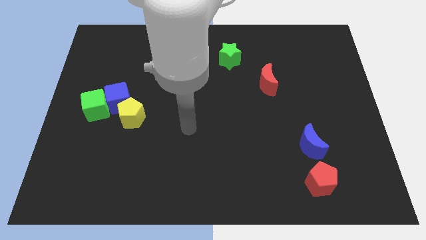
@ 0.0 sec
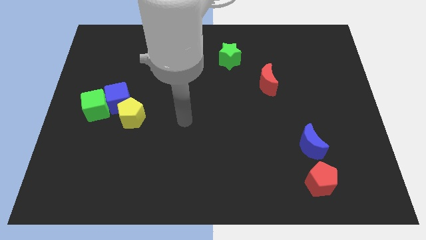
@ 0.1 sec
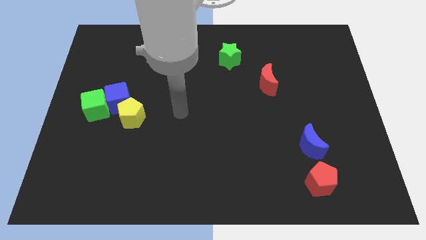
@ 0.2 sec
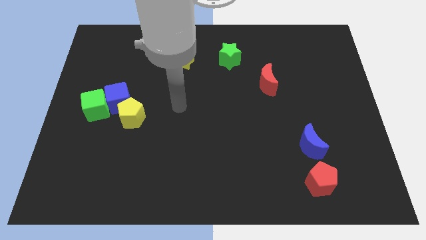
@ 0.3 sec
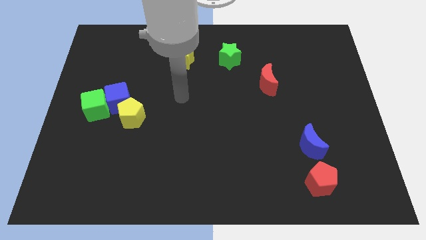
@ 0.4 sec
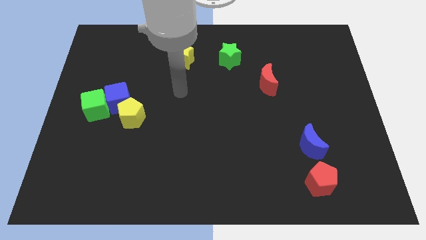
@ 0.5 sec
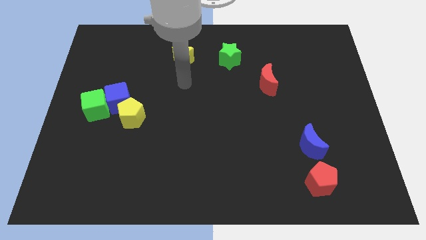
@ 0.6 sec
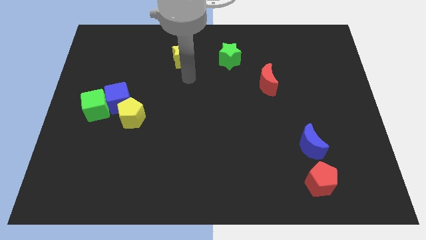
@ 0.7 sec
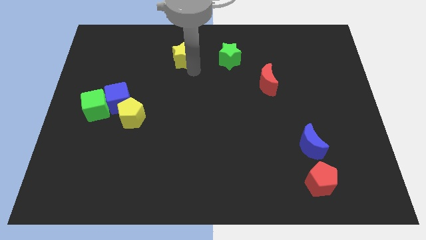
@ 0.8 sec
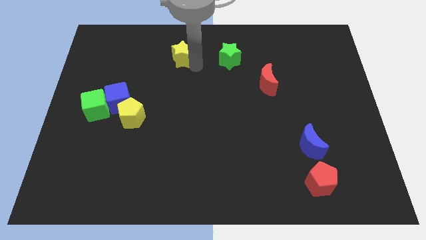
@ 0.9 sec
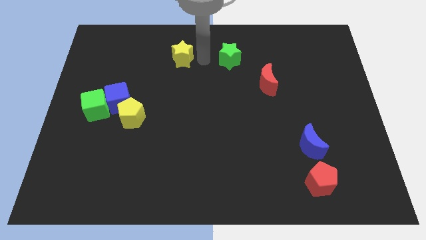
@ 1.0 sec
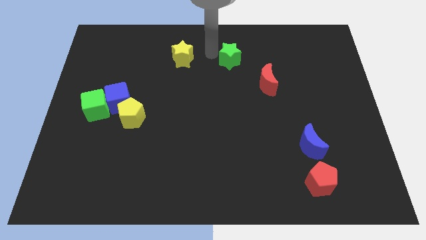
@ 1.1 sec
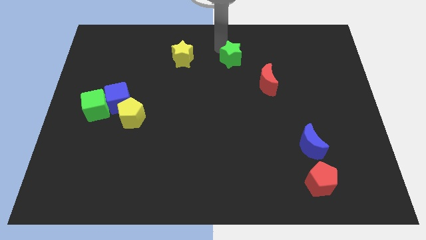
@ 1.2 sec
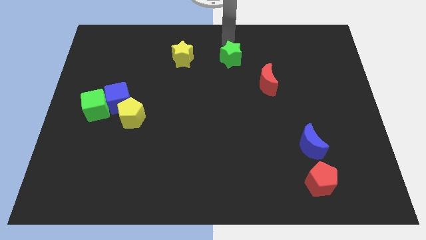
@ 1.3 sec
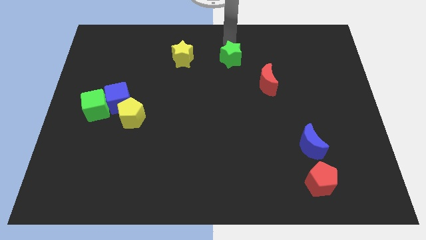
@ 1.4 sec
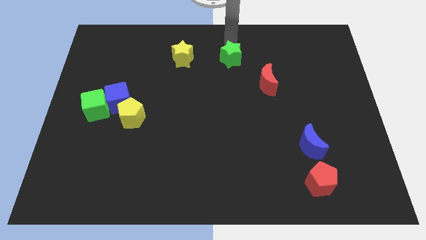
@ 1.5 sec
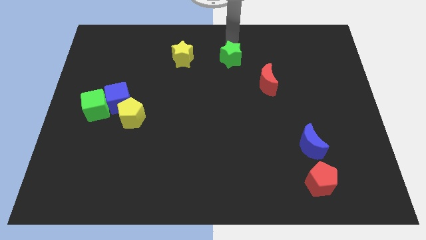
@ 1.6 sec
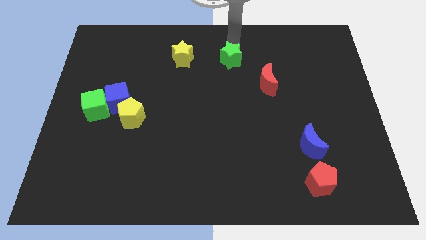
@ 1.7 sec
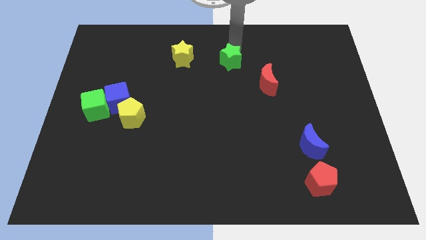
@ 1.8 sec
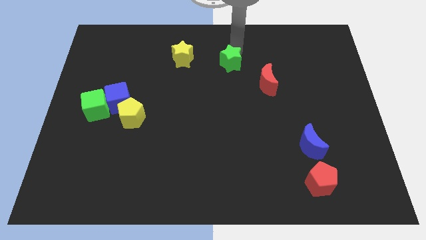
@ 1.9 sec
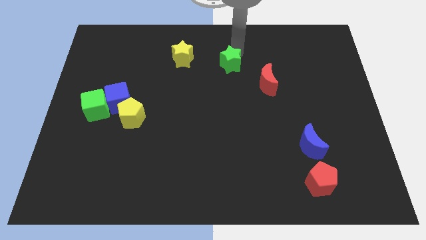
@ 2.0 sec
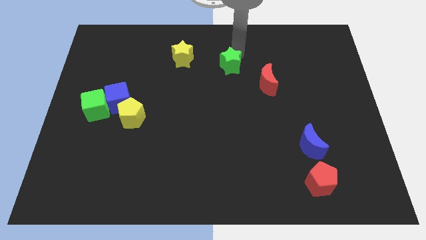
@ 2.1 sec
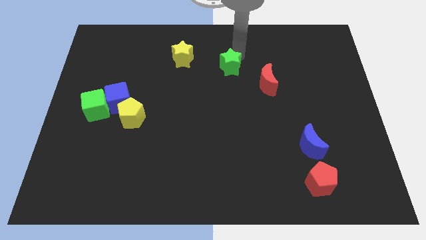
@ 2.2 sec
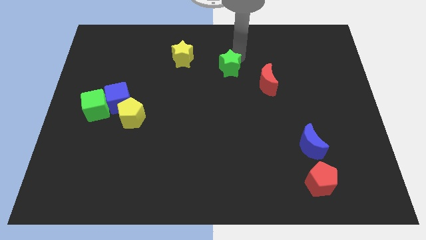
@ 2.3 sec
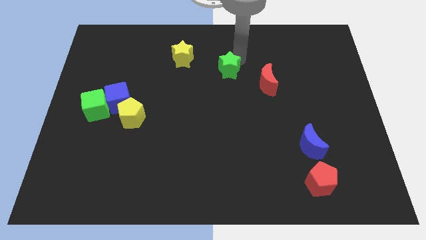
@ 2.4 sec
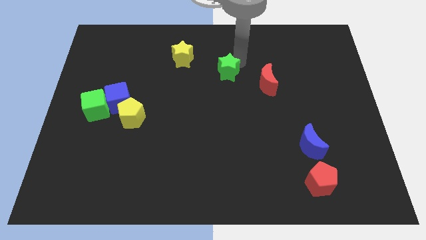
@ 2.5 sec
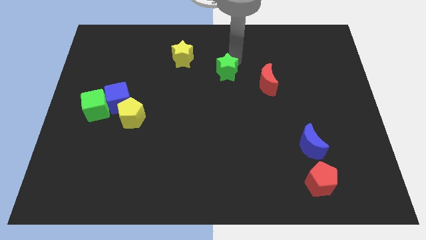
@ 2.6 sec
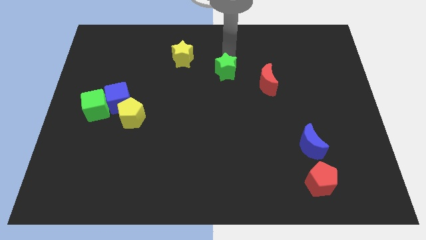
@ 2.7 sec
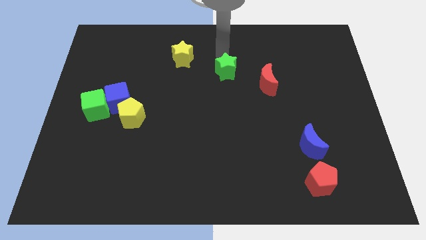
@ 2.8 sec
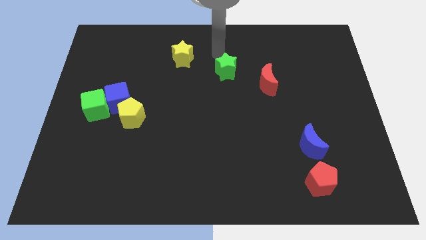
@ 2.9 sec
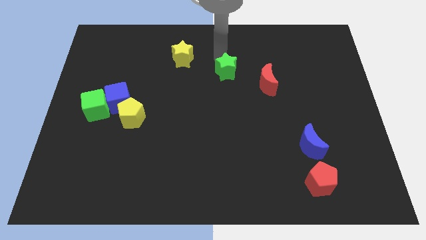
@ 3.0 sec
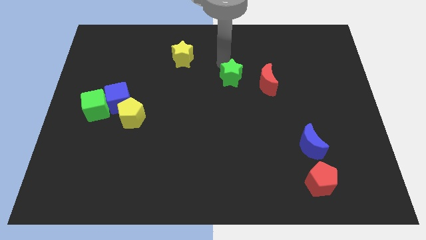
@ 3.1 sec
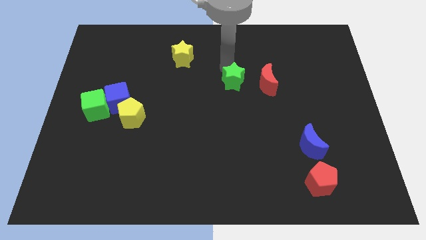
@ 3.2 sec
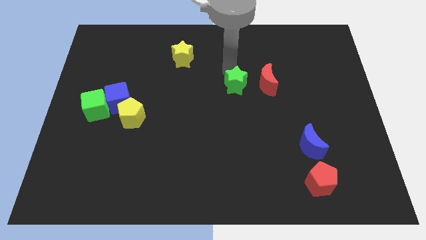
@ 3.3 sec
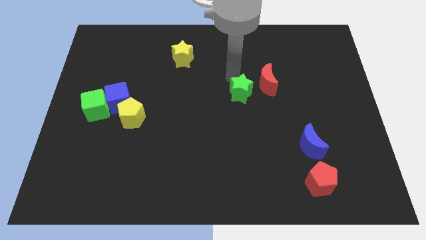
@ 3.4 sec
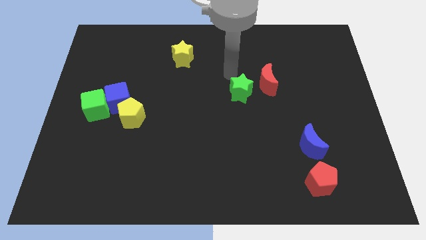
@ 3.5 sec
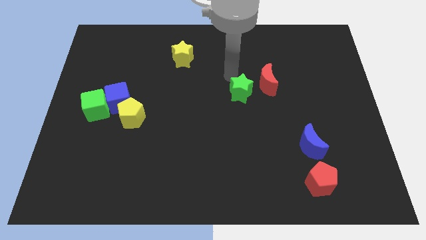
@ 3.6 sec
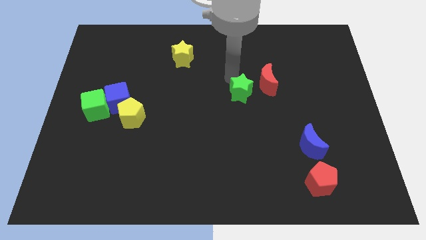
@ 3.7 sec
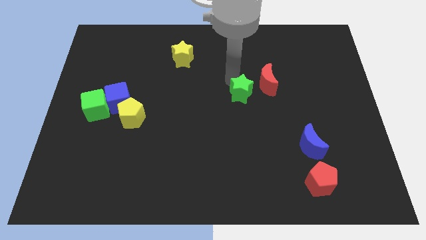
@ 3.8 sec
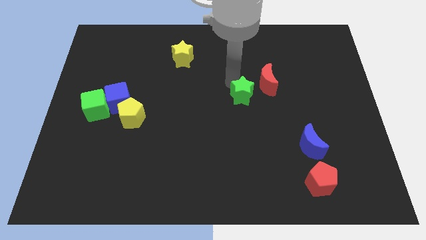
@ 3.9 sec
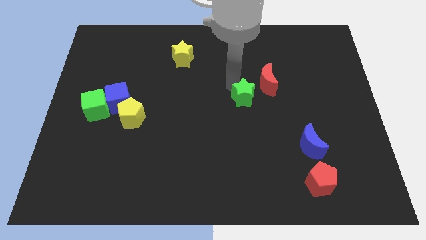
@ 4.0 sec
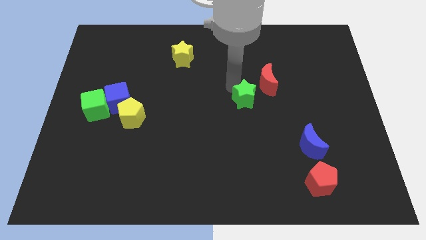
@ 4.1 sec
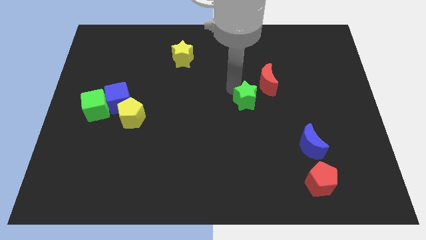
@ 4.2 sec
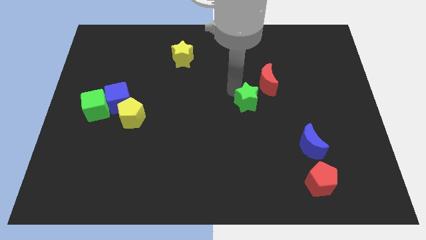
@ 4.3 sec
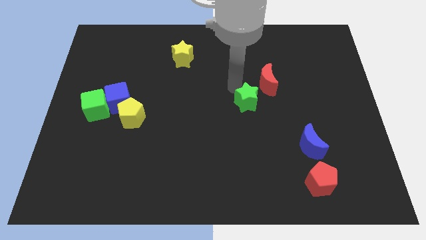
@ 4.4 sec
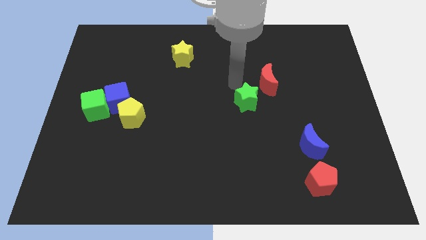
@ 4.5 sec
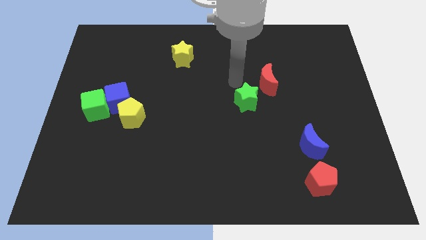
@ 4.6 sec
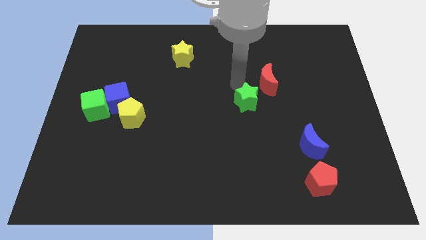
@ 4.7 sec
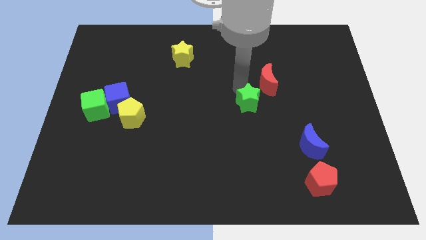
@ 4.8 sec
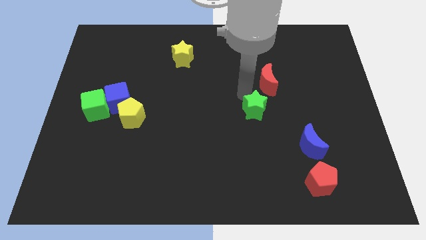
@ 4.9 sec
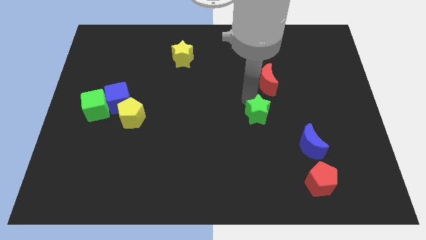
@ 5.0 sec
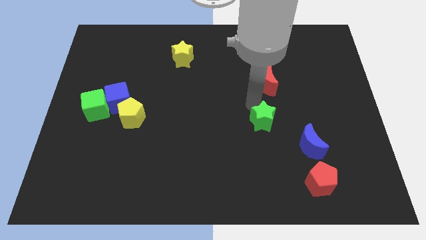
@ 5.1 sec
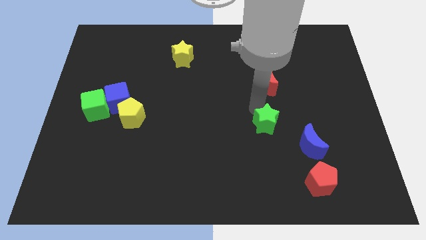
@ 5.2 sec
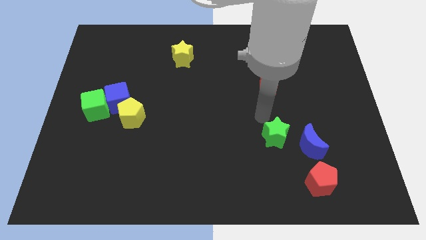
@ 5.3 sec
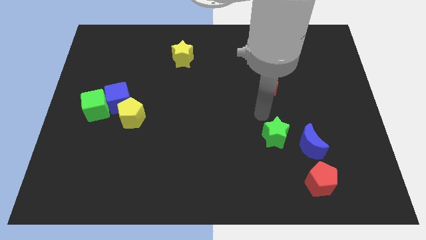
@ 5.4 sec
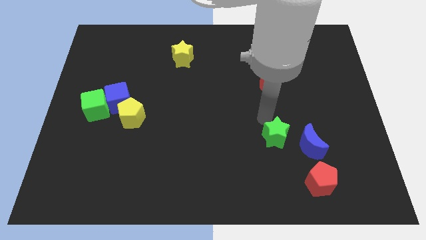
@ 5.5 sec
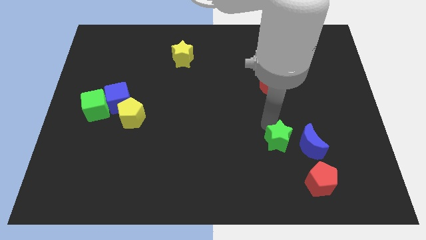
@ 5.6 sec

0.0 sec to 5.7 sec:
move the green star diagonally up and to the left of the red pentagon

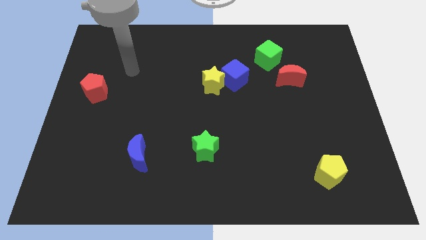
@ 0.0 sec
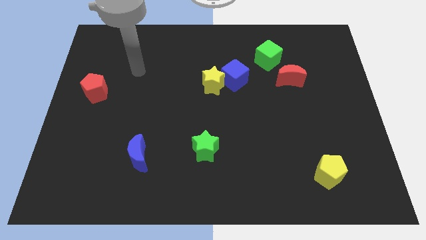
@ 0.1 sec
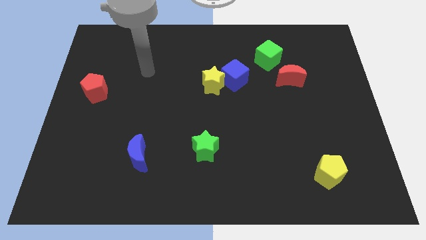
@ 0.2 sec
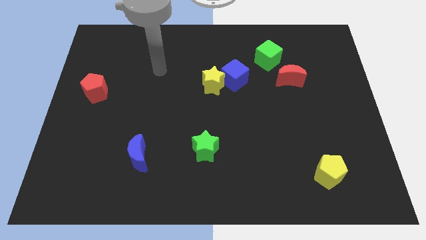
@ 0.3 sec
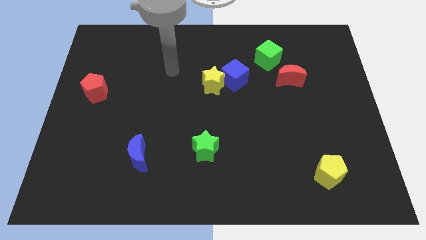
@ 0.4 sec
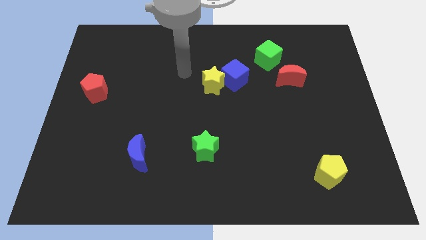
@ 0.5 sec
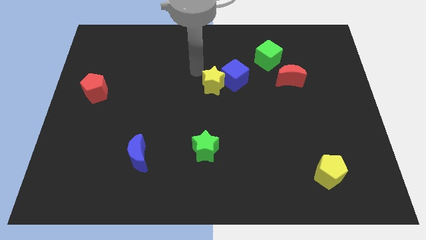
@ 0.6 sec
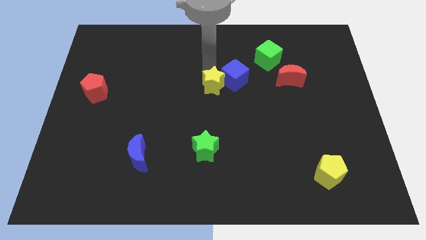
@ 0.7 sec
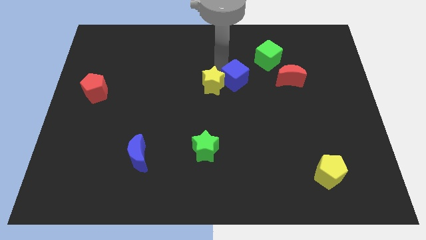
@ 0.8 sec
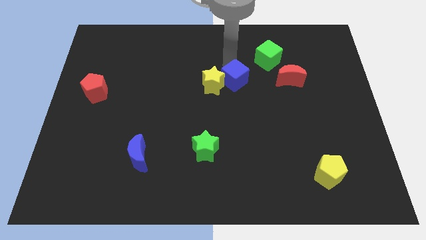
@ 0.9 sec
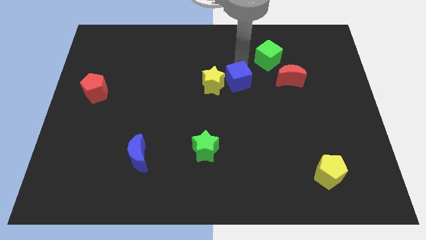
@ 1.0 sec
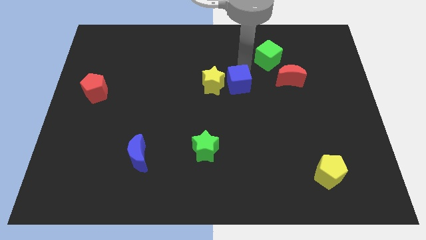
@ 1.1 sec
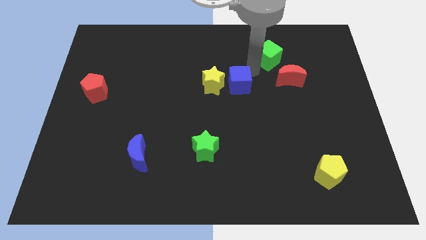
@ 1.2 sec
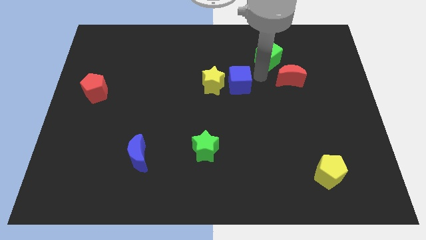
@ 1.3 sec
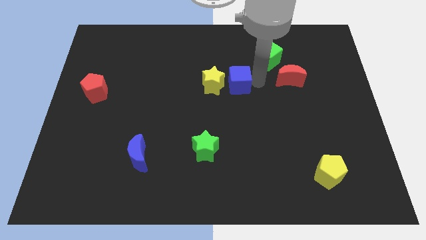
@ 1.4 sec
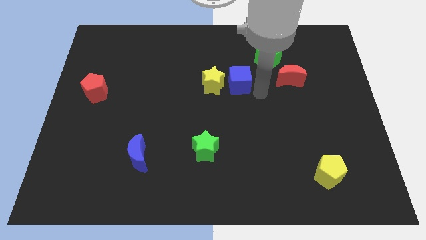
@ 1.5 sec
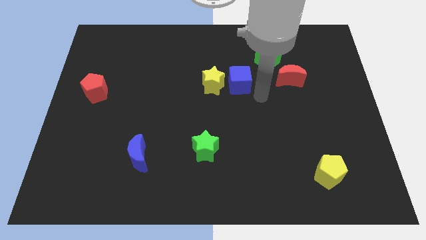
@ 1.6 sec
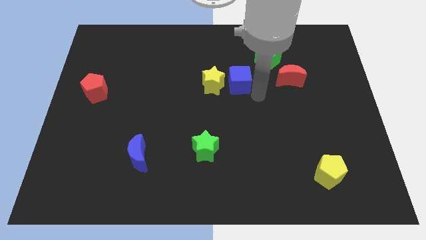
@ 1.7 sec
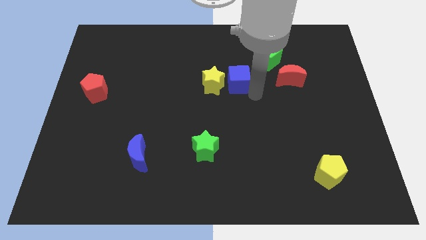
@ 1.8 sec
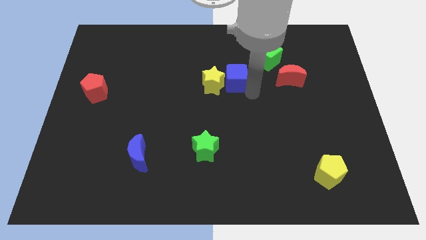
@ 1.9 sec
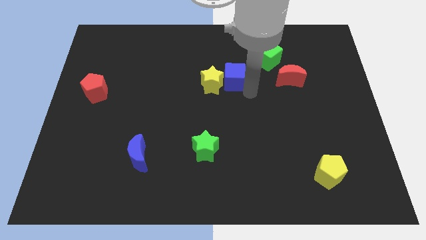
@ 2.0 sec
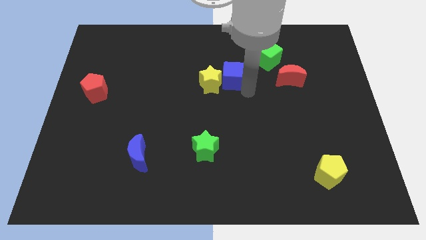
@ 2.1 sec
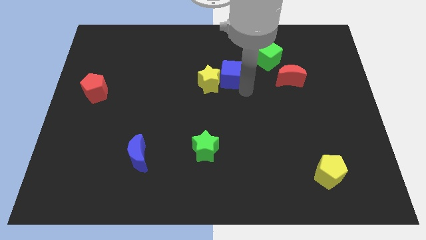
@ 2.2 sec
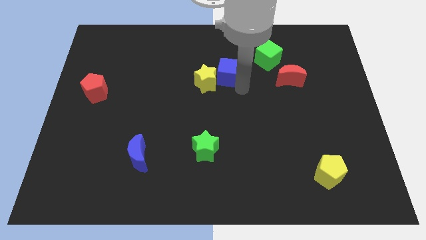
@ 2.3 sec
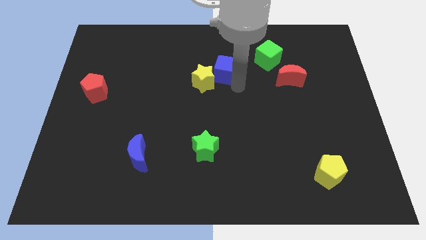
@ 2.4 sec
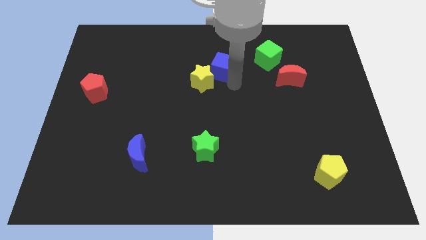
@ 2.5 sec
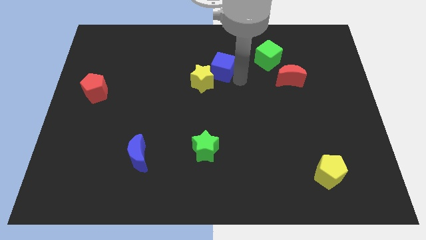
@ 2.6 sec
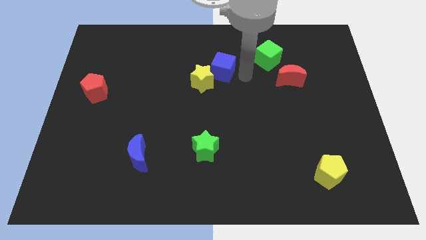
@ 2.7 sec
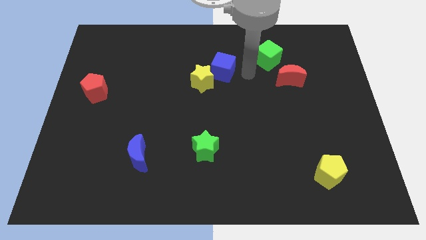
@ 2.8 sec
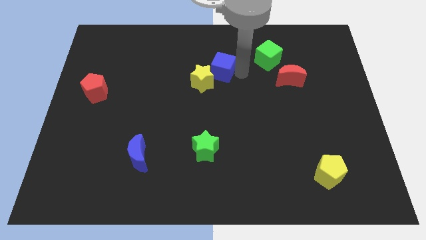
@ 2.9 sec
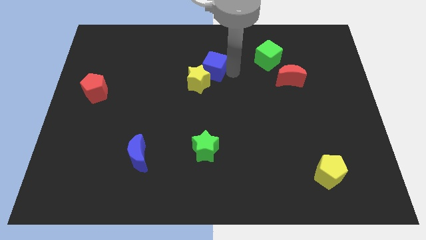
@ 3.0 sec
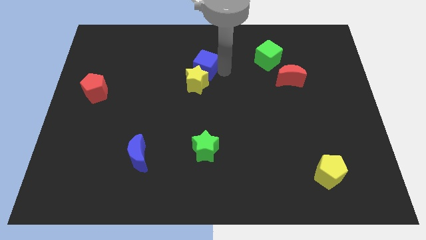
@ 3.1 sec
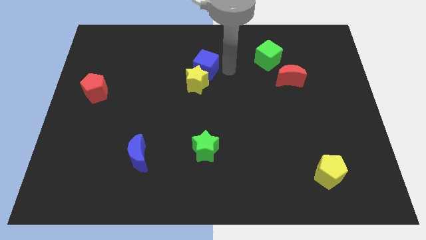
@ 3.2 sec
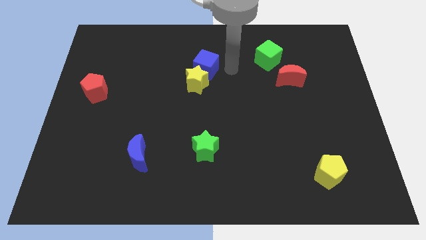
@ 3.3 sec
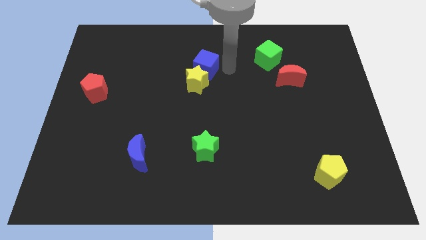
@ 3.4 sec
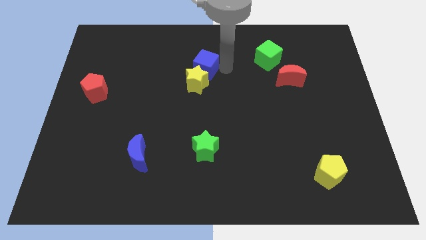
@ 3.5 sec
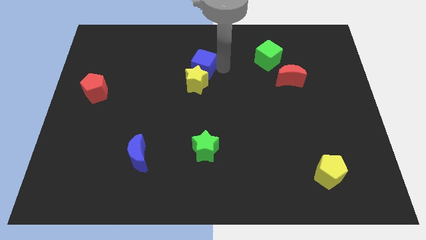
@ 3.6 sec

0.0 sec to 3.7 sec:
move the blue cube to the top left side of the yellow star
